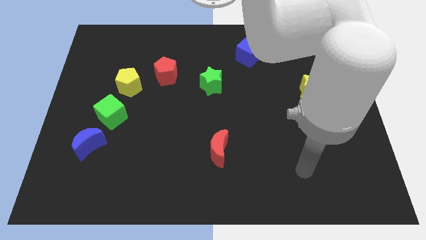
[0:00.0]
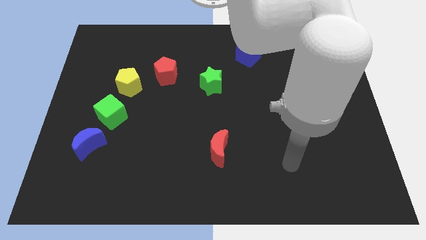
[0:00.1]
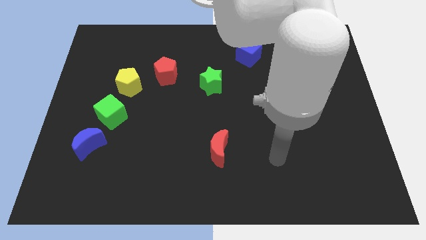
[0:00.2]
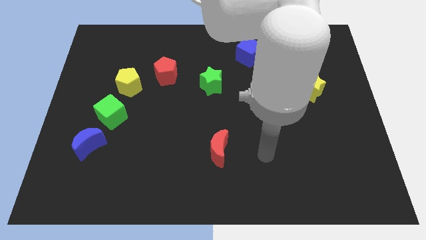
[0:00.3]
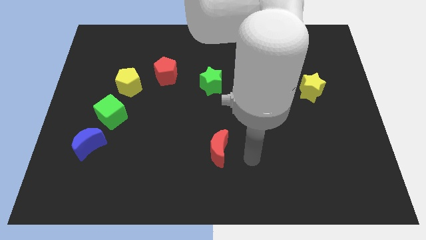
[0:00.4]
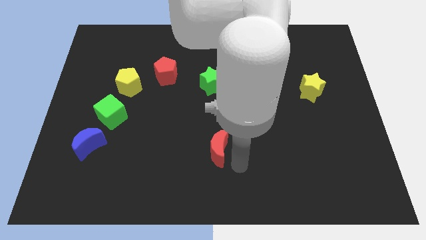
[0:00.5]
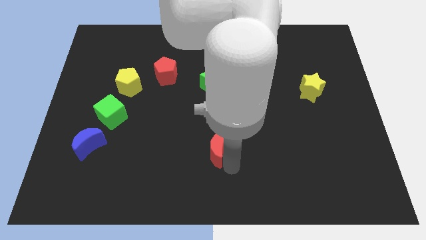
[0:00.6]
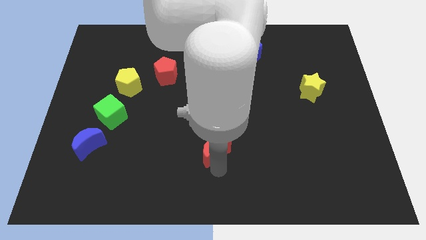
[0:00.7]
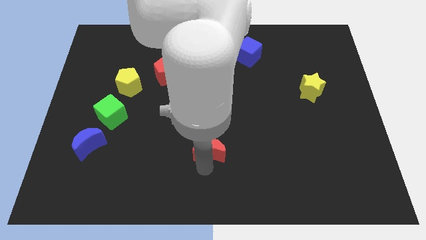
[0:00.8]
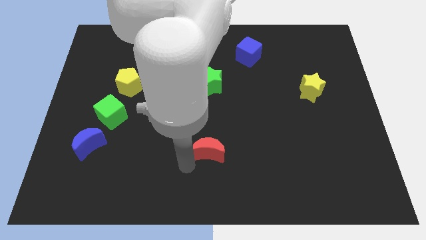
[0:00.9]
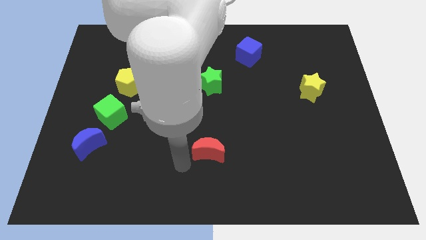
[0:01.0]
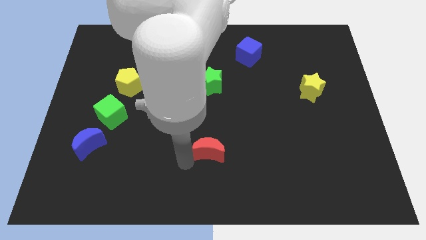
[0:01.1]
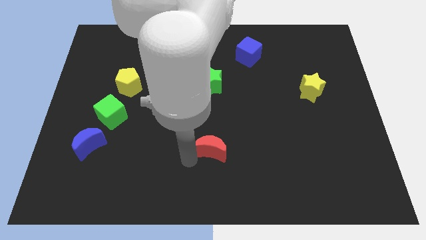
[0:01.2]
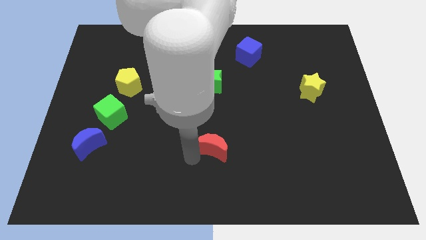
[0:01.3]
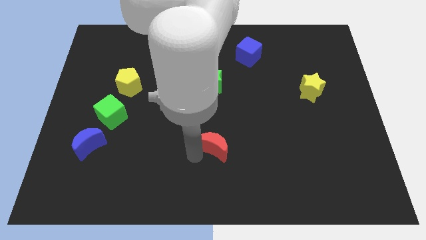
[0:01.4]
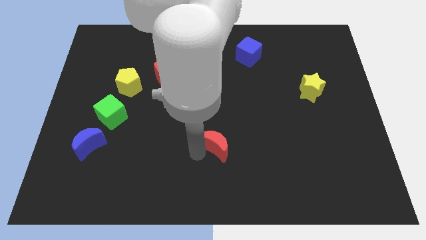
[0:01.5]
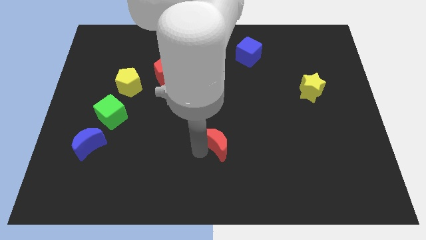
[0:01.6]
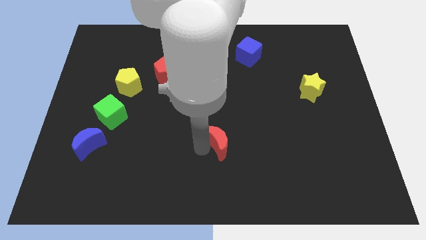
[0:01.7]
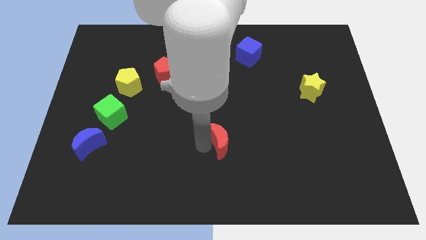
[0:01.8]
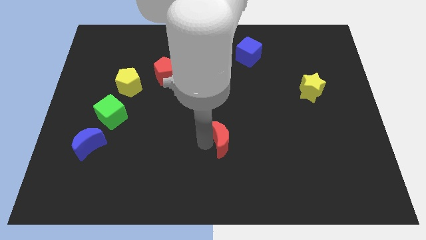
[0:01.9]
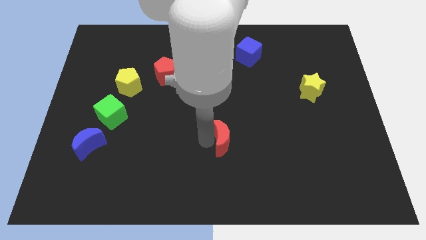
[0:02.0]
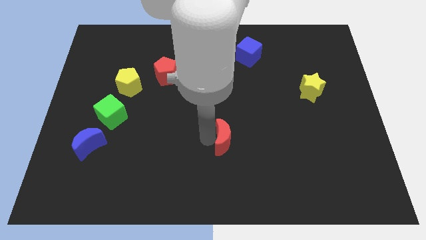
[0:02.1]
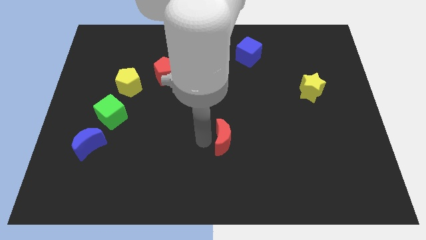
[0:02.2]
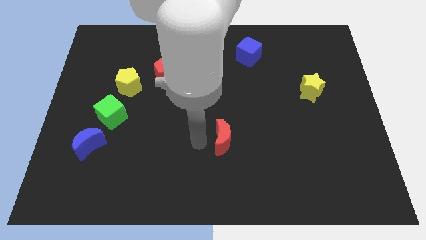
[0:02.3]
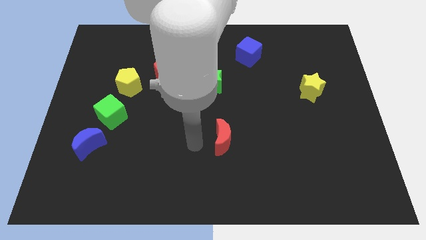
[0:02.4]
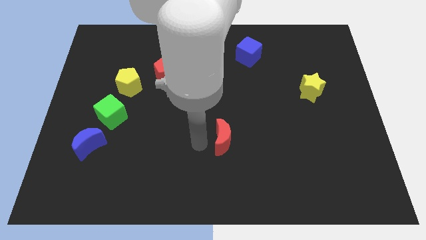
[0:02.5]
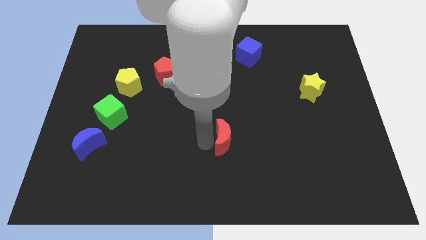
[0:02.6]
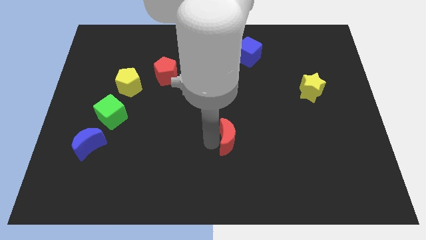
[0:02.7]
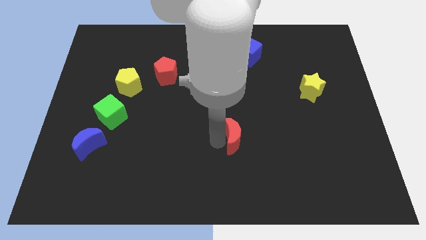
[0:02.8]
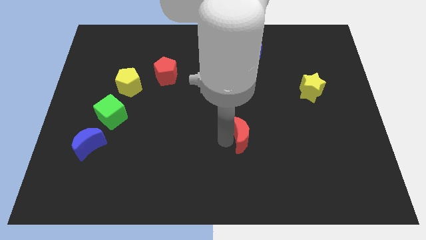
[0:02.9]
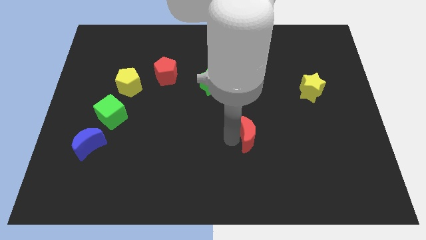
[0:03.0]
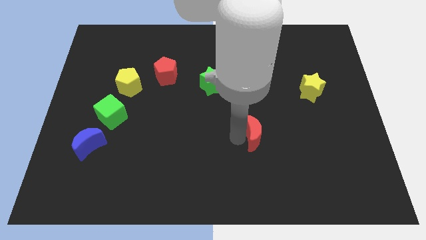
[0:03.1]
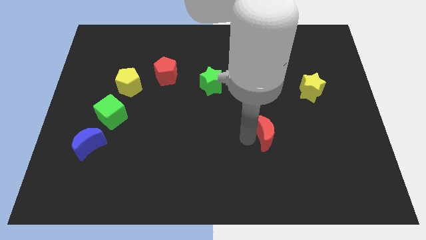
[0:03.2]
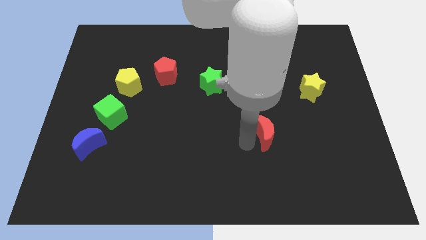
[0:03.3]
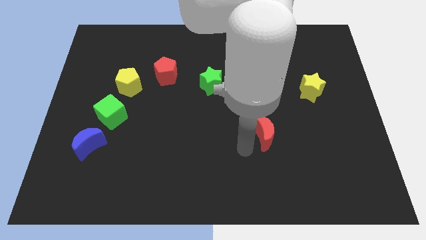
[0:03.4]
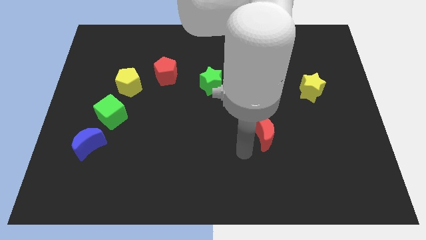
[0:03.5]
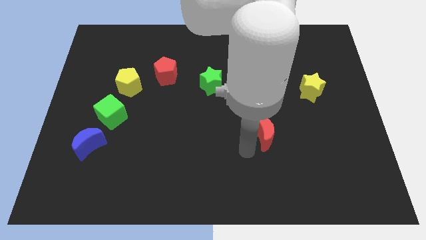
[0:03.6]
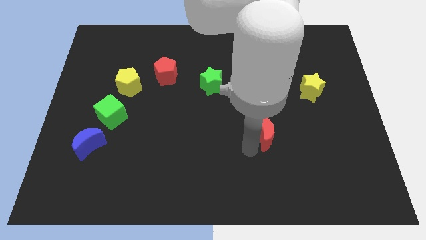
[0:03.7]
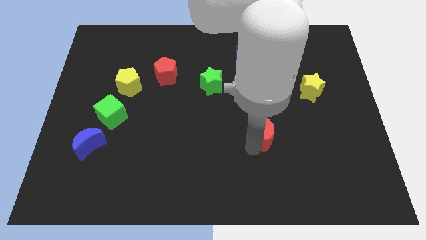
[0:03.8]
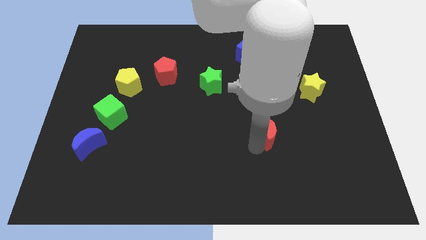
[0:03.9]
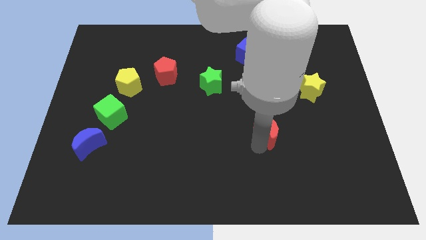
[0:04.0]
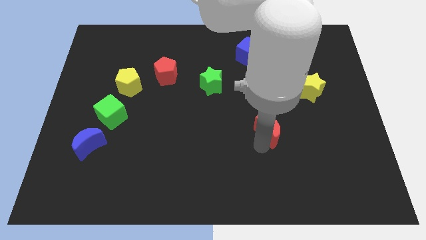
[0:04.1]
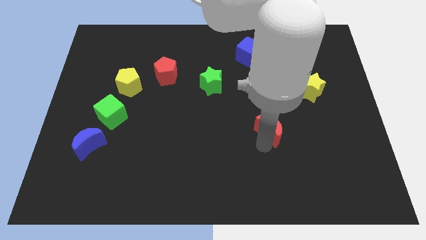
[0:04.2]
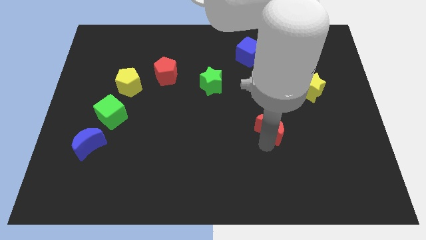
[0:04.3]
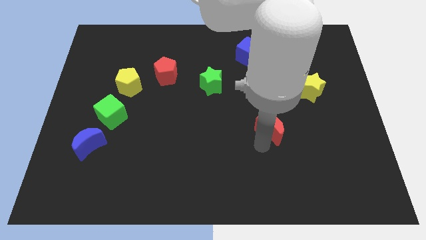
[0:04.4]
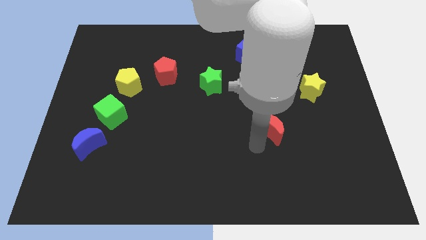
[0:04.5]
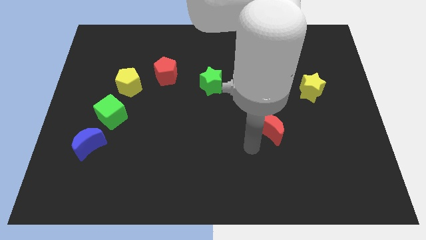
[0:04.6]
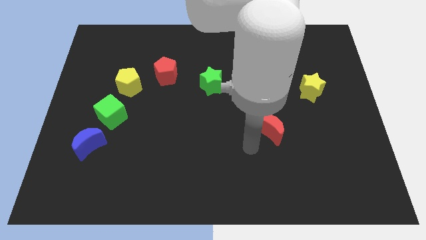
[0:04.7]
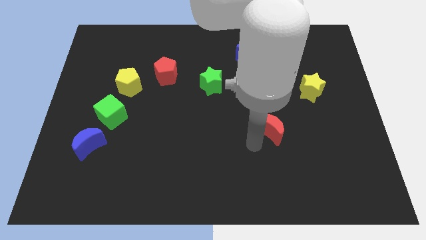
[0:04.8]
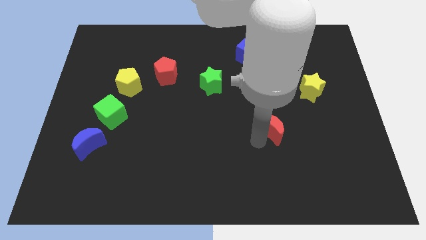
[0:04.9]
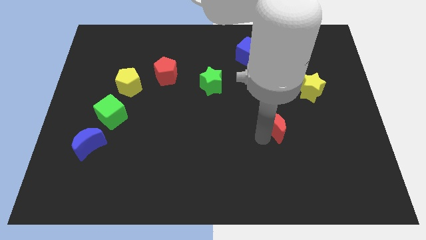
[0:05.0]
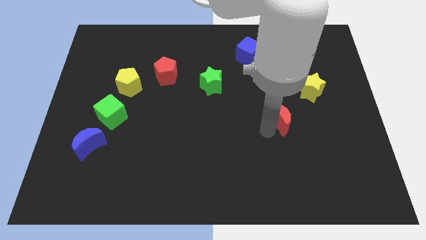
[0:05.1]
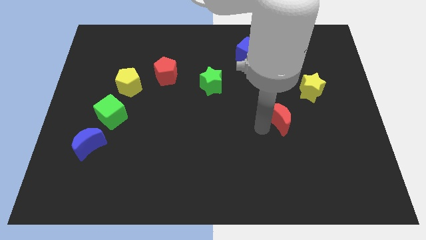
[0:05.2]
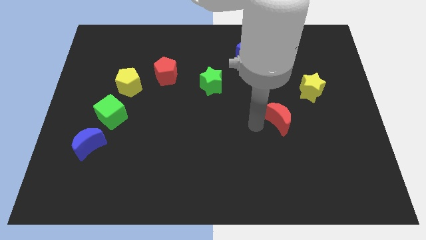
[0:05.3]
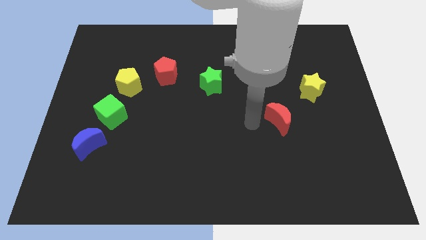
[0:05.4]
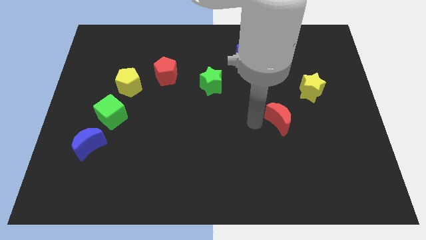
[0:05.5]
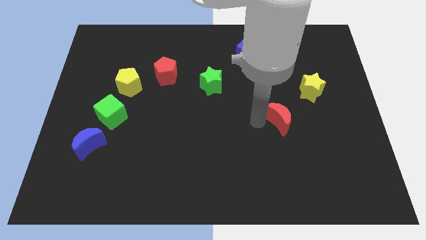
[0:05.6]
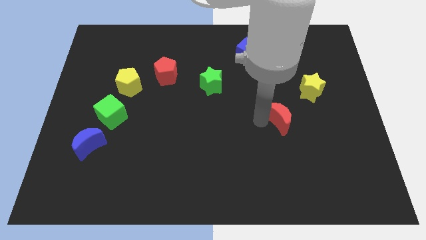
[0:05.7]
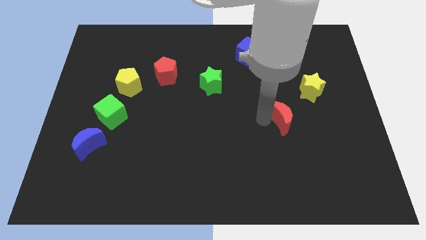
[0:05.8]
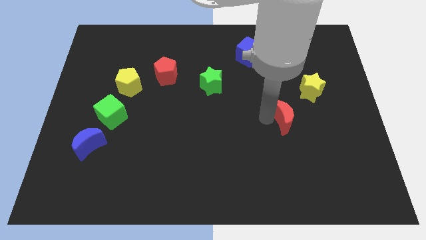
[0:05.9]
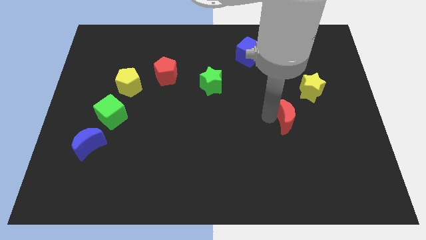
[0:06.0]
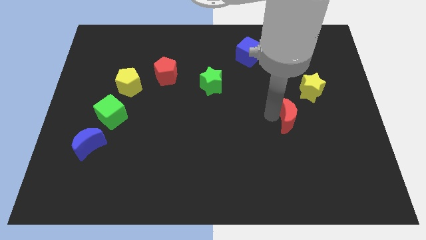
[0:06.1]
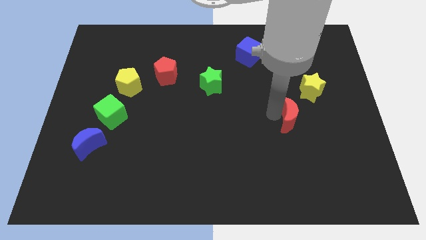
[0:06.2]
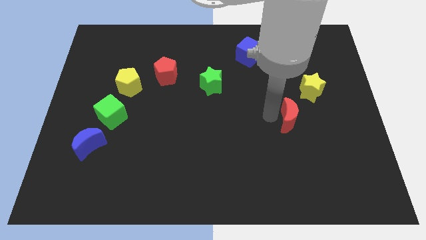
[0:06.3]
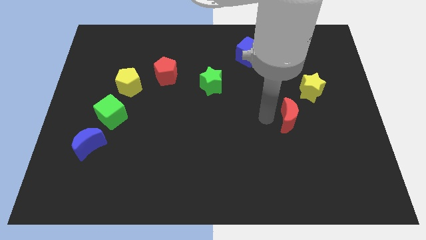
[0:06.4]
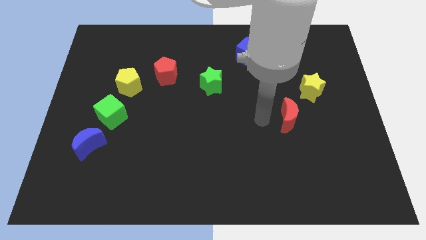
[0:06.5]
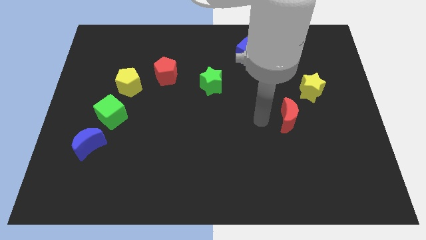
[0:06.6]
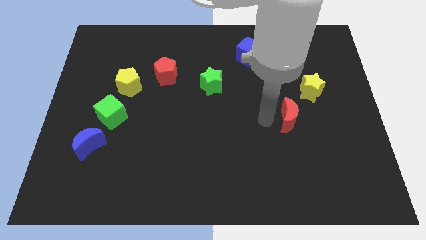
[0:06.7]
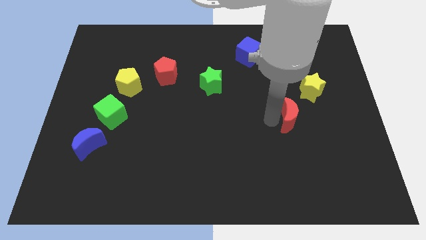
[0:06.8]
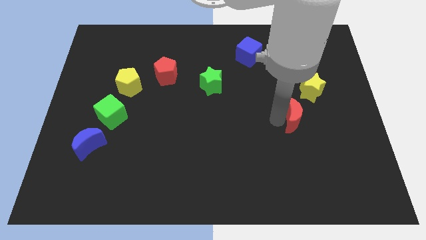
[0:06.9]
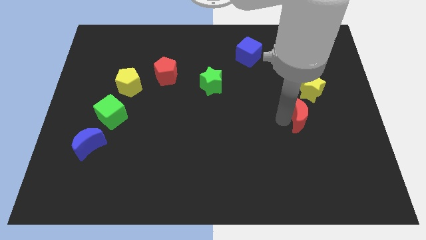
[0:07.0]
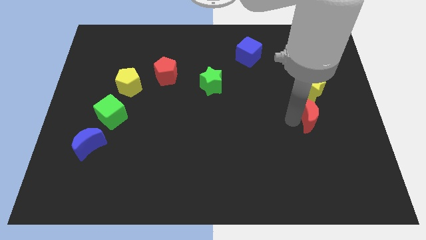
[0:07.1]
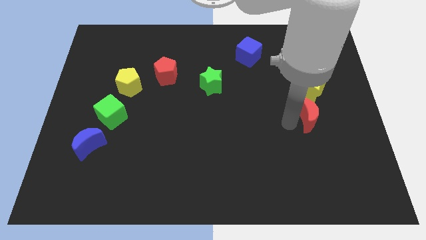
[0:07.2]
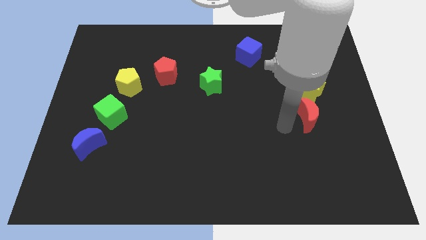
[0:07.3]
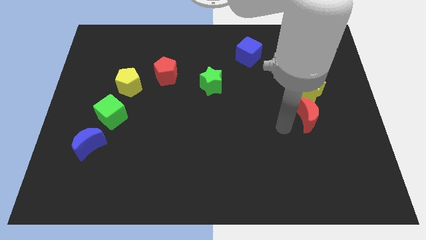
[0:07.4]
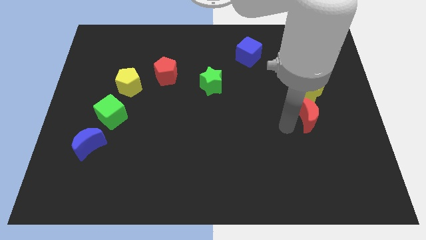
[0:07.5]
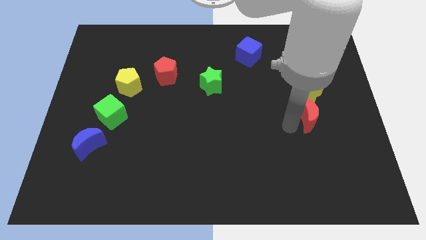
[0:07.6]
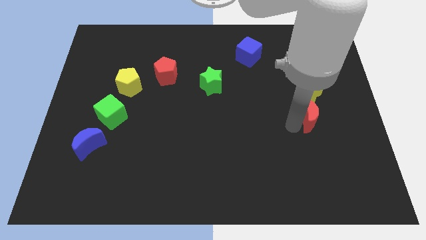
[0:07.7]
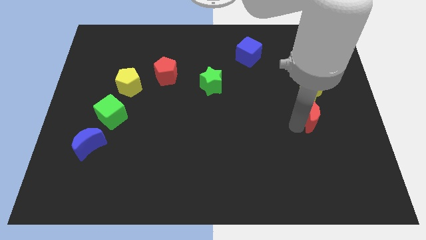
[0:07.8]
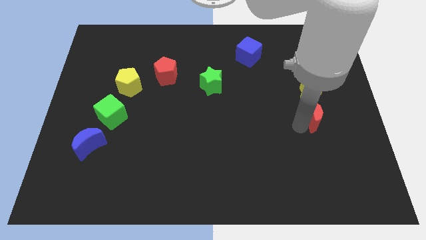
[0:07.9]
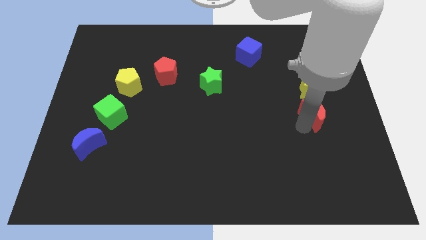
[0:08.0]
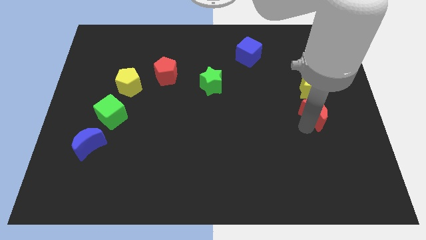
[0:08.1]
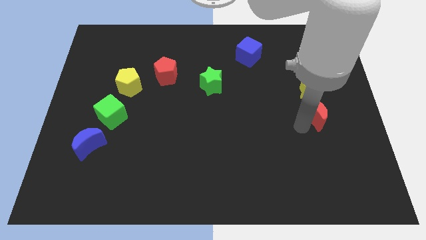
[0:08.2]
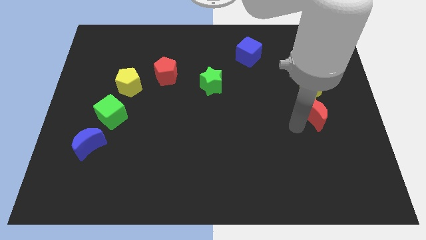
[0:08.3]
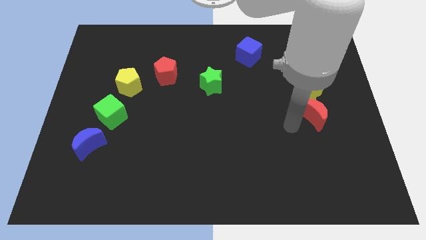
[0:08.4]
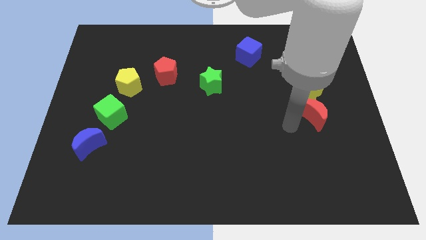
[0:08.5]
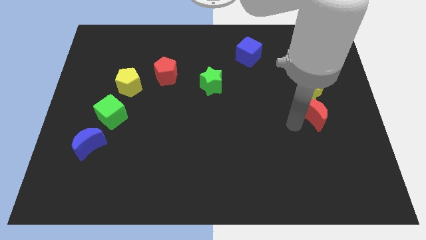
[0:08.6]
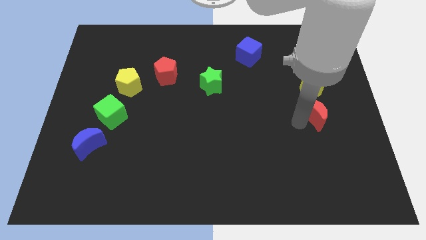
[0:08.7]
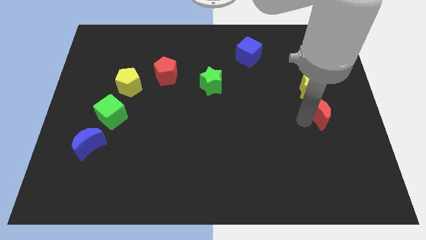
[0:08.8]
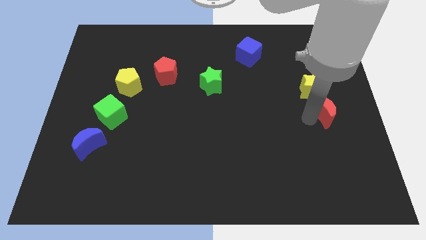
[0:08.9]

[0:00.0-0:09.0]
slide the red moon to the right side
